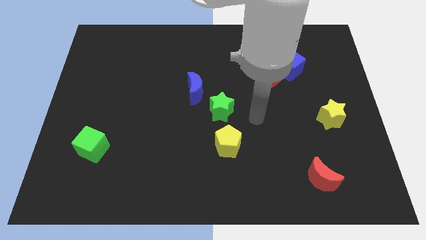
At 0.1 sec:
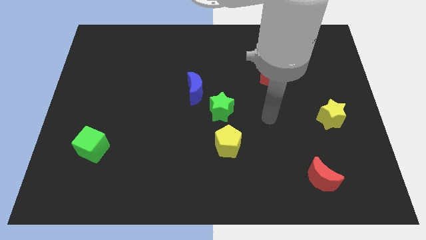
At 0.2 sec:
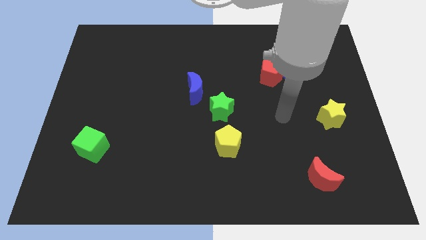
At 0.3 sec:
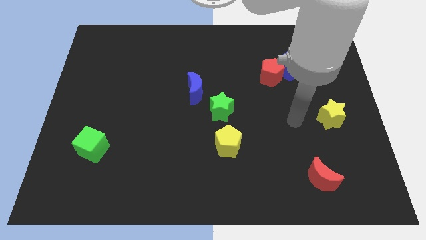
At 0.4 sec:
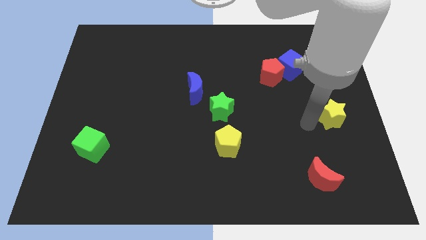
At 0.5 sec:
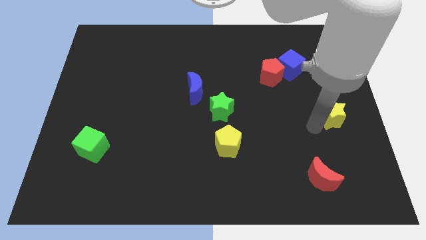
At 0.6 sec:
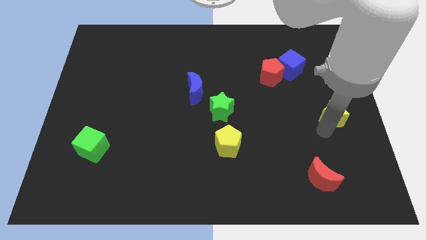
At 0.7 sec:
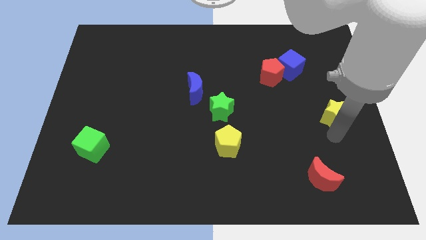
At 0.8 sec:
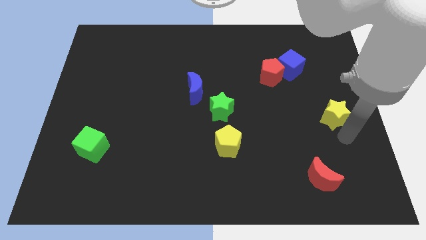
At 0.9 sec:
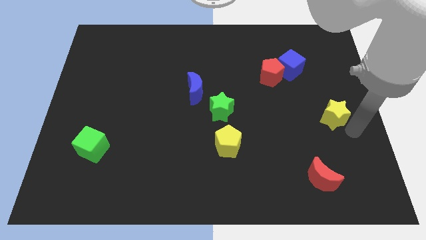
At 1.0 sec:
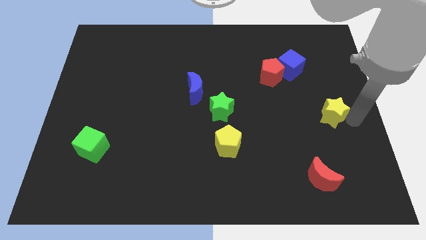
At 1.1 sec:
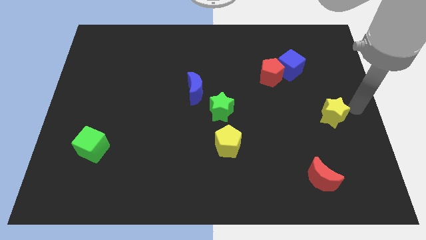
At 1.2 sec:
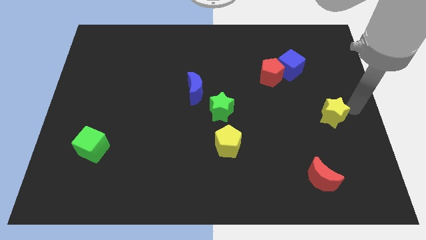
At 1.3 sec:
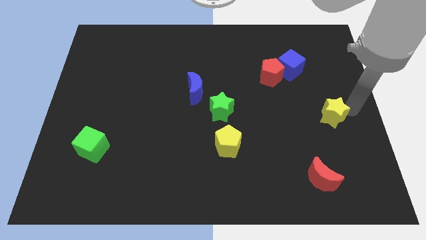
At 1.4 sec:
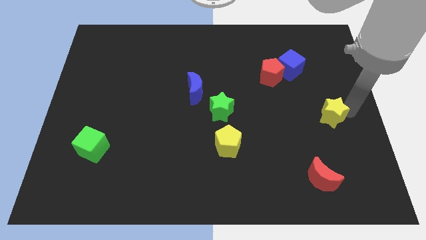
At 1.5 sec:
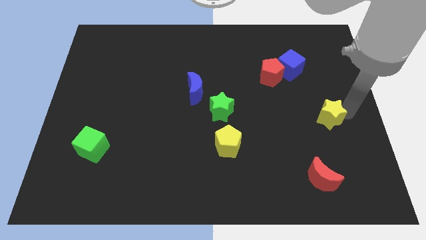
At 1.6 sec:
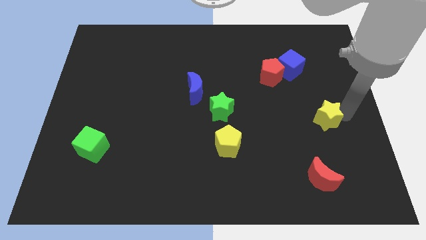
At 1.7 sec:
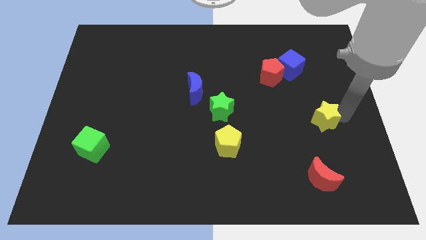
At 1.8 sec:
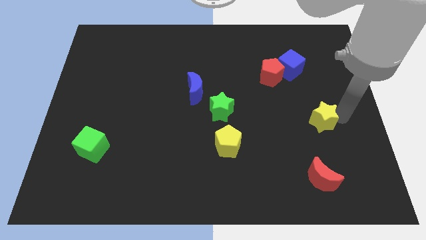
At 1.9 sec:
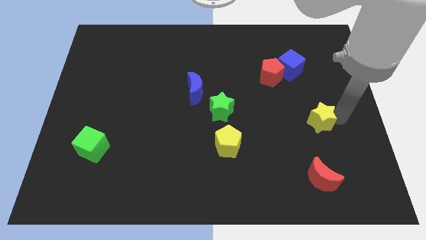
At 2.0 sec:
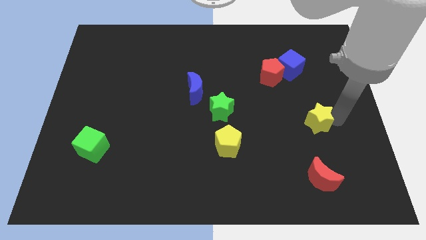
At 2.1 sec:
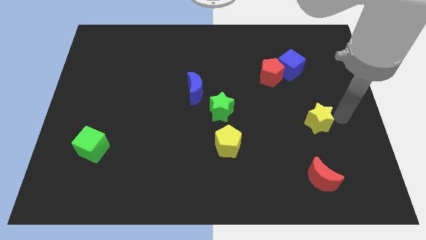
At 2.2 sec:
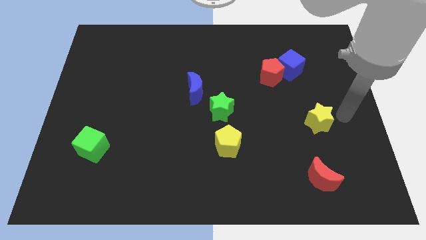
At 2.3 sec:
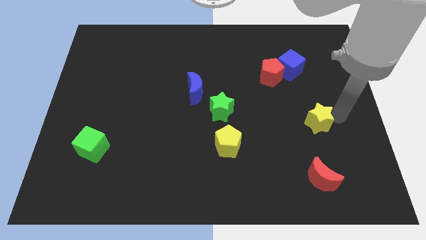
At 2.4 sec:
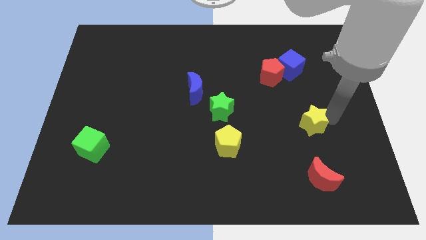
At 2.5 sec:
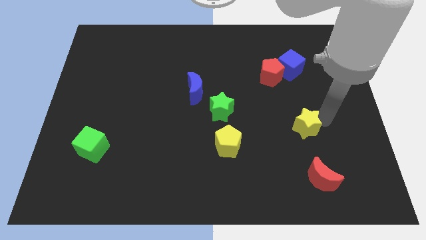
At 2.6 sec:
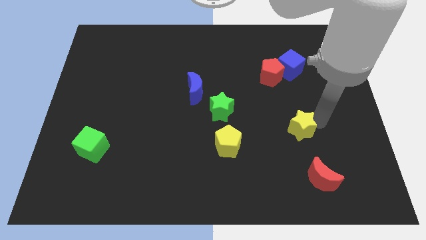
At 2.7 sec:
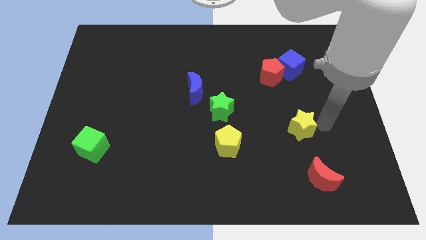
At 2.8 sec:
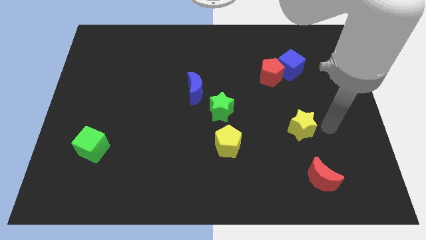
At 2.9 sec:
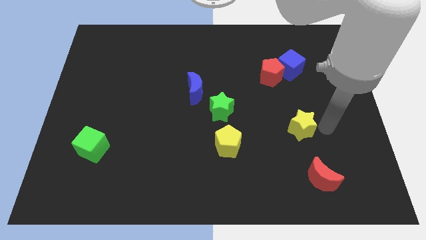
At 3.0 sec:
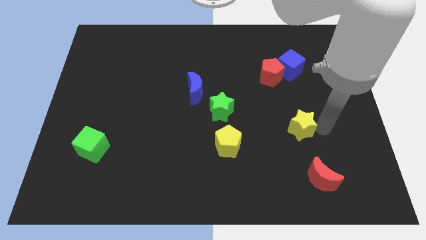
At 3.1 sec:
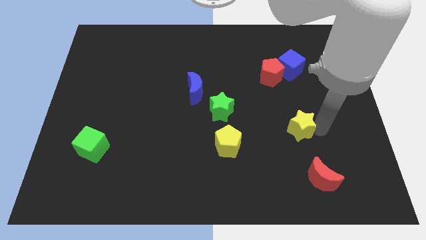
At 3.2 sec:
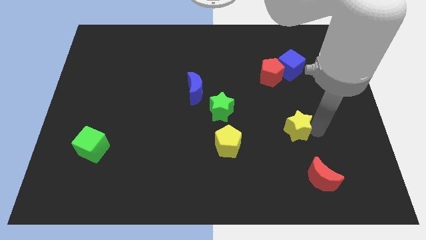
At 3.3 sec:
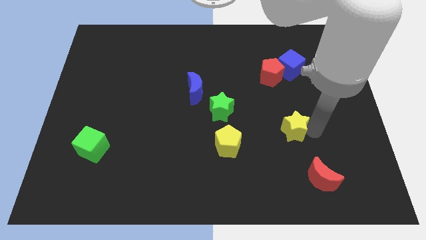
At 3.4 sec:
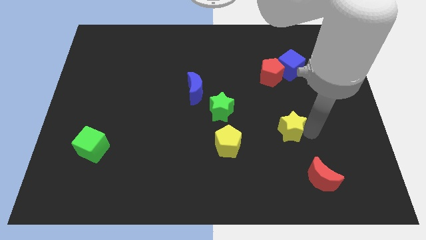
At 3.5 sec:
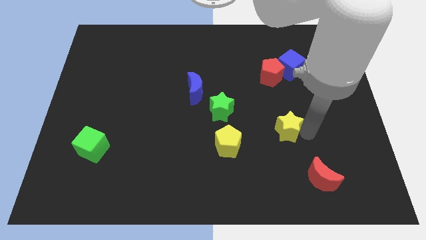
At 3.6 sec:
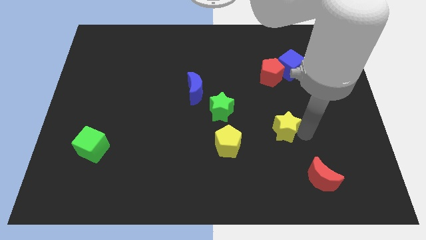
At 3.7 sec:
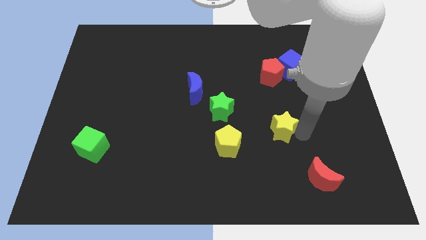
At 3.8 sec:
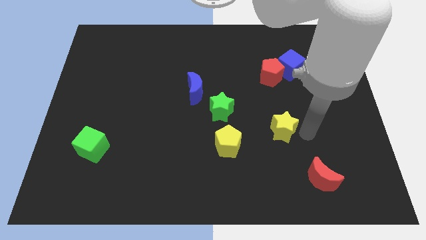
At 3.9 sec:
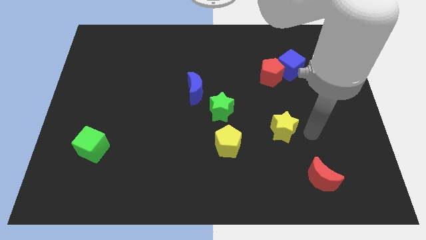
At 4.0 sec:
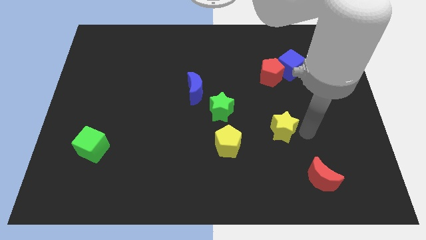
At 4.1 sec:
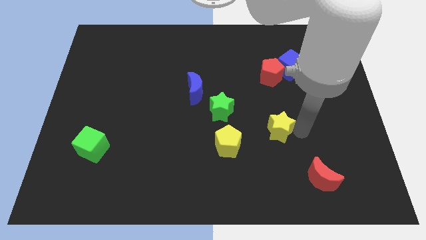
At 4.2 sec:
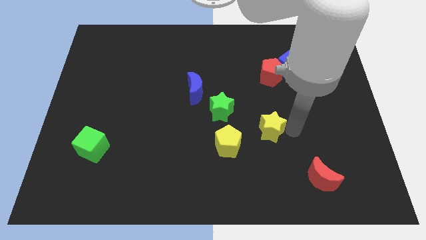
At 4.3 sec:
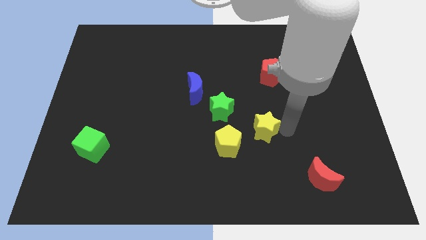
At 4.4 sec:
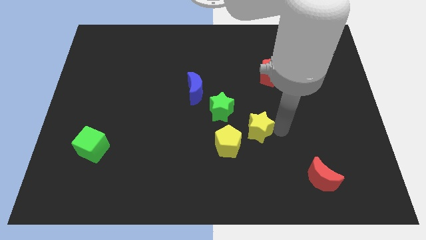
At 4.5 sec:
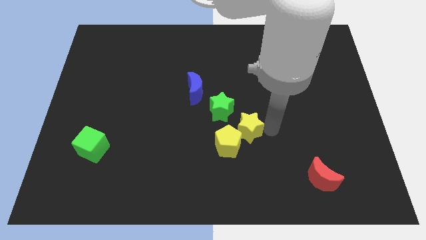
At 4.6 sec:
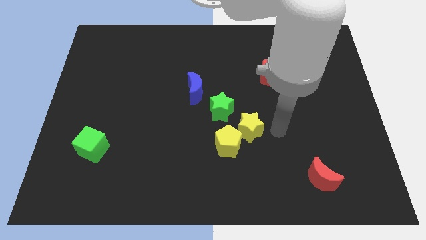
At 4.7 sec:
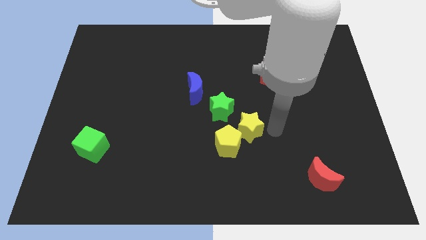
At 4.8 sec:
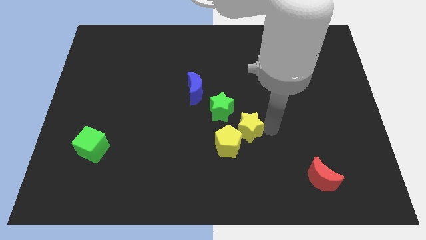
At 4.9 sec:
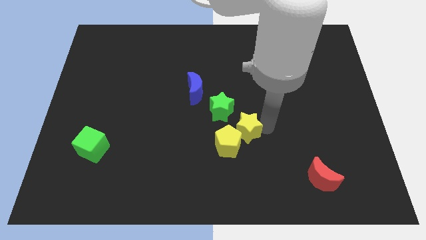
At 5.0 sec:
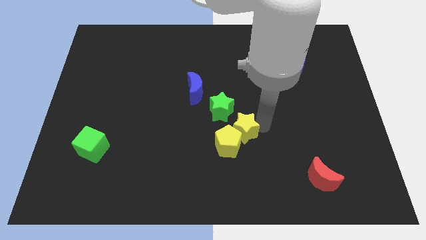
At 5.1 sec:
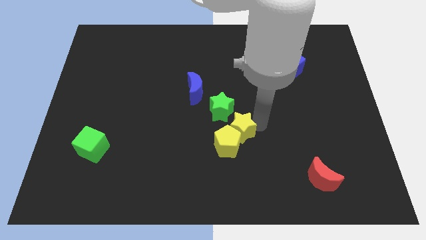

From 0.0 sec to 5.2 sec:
push the yellow star left

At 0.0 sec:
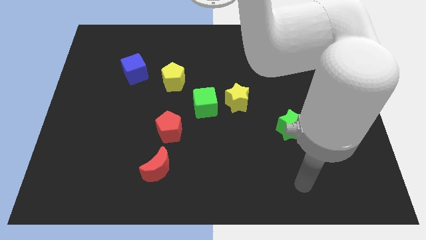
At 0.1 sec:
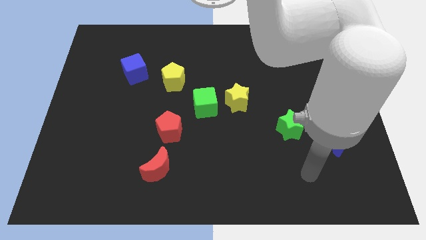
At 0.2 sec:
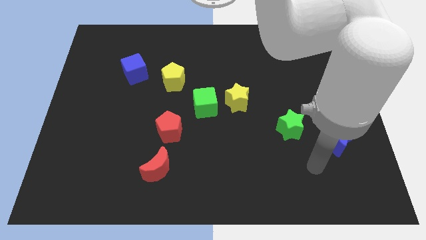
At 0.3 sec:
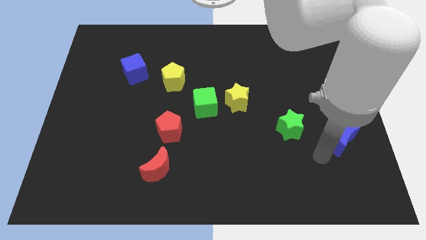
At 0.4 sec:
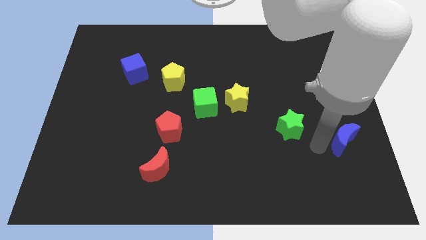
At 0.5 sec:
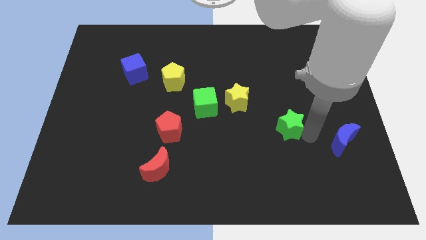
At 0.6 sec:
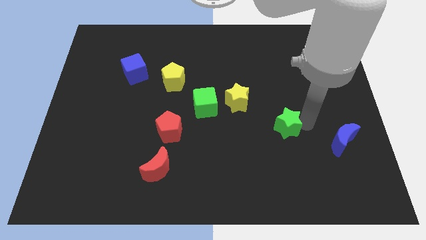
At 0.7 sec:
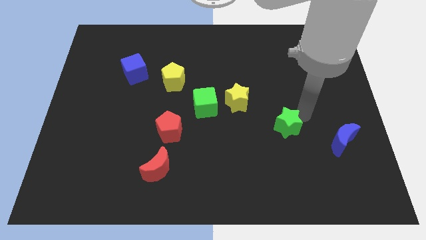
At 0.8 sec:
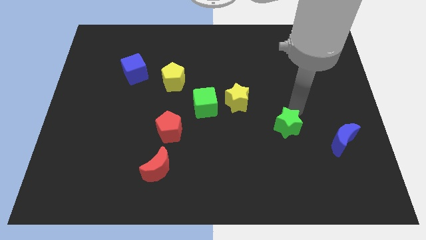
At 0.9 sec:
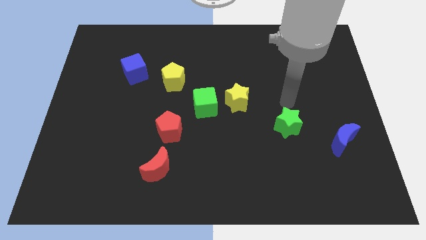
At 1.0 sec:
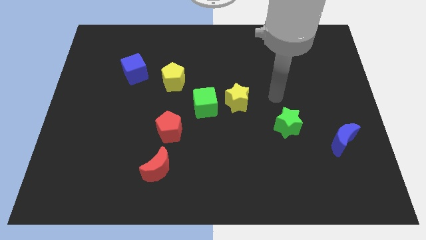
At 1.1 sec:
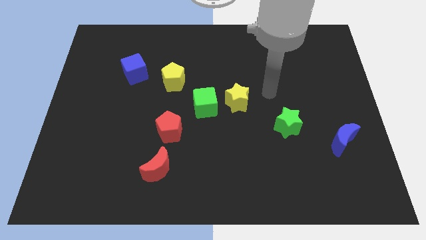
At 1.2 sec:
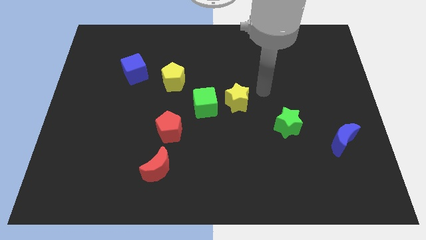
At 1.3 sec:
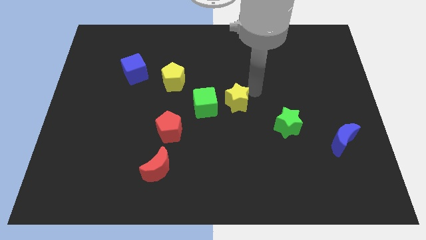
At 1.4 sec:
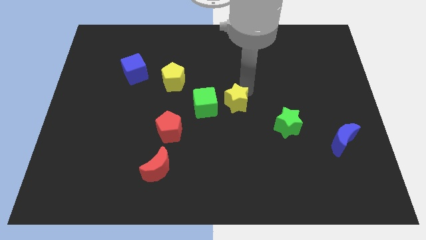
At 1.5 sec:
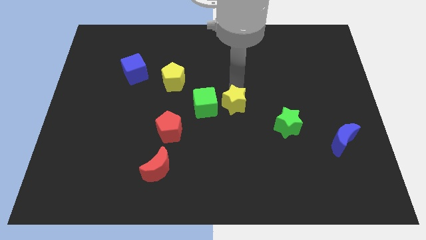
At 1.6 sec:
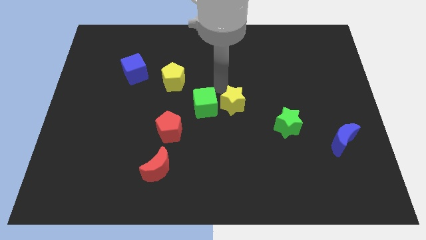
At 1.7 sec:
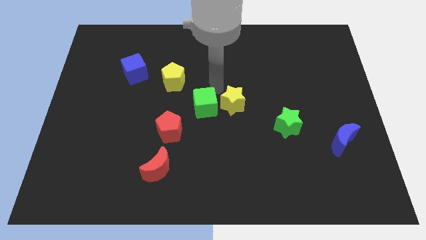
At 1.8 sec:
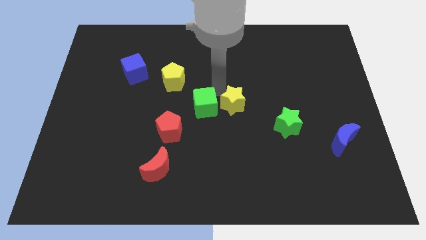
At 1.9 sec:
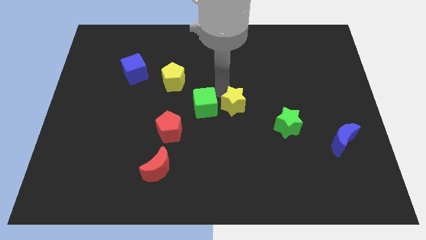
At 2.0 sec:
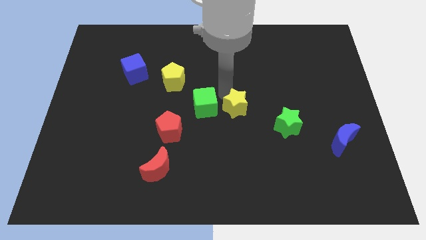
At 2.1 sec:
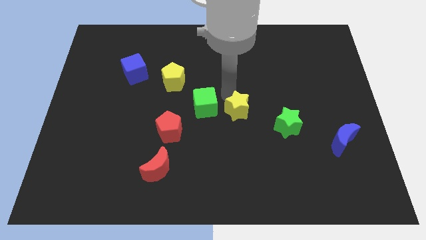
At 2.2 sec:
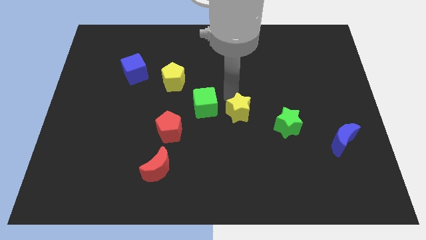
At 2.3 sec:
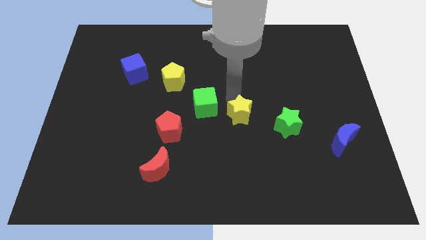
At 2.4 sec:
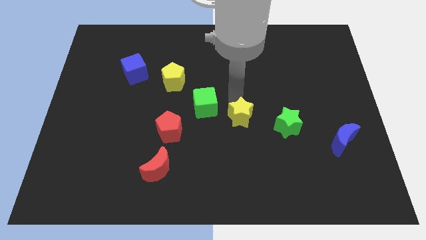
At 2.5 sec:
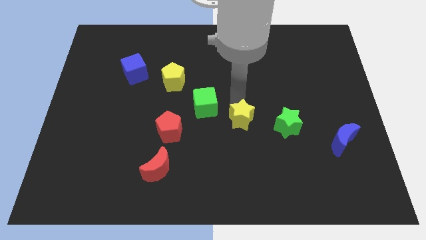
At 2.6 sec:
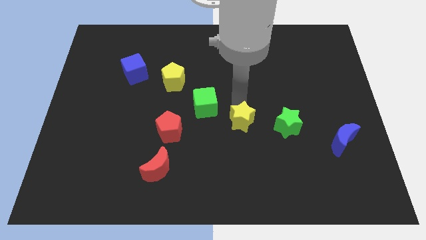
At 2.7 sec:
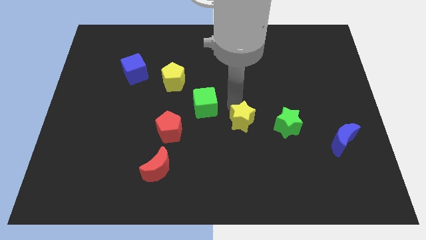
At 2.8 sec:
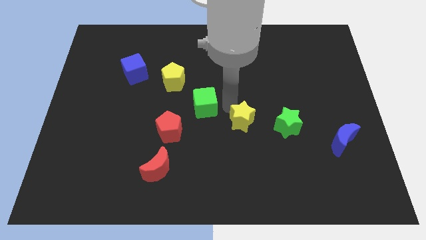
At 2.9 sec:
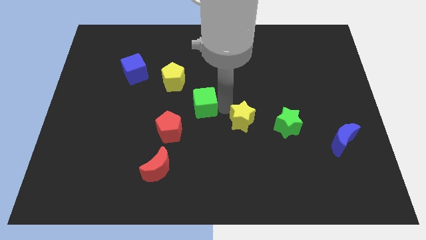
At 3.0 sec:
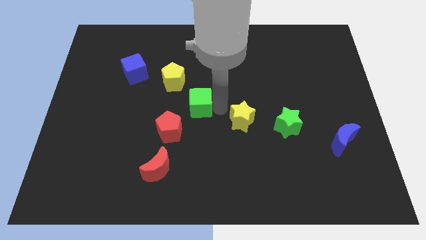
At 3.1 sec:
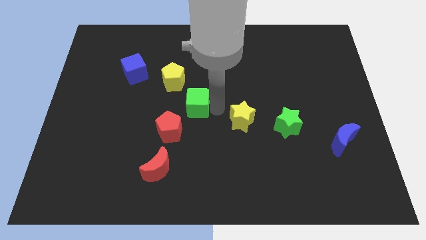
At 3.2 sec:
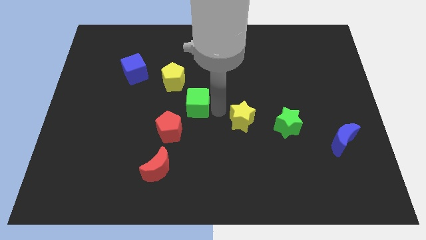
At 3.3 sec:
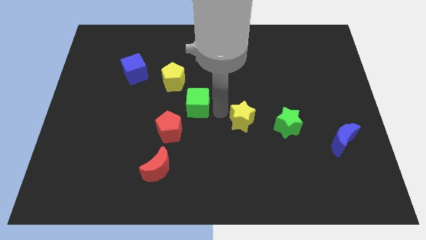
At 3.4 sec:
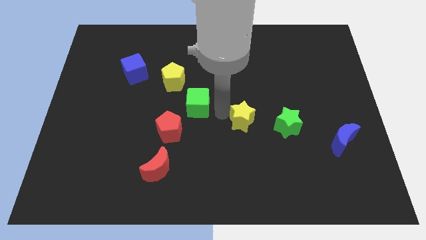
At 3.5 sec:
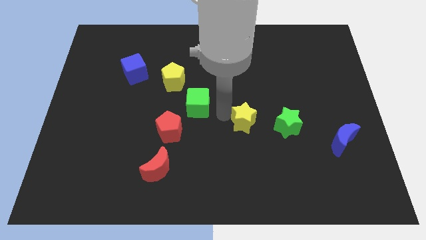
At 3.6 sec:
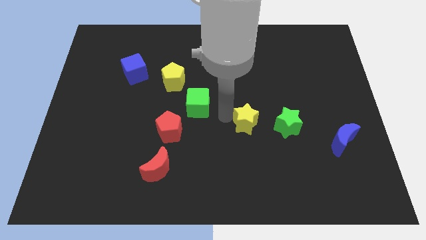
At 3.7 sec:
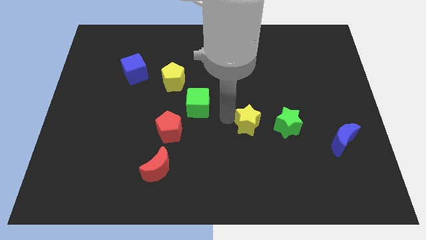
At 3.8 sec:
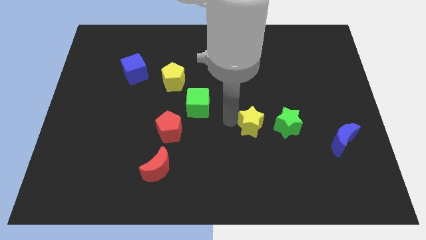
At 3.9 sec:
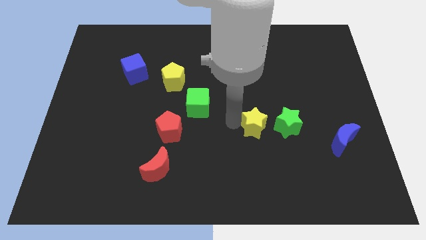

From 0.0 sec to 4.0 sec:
slightly slide the yellow star diagonally down and right
